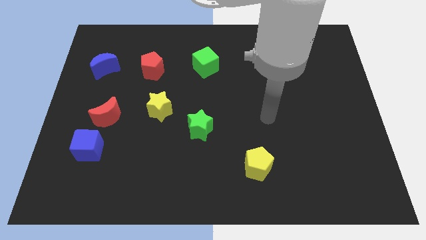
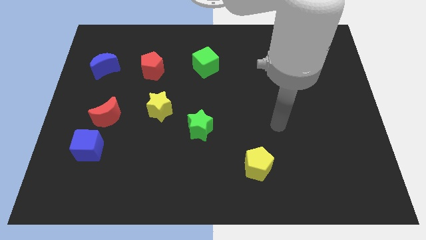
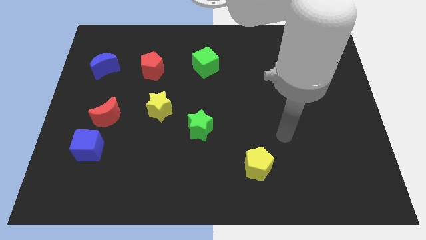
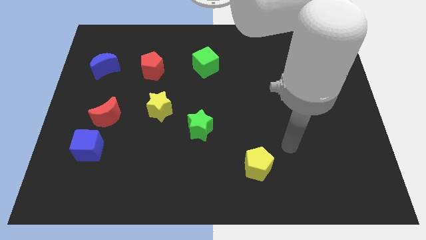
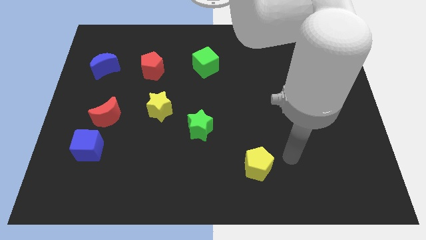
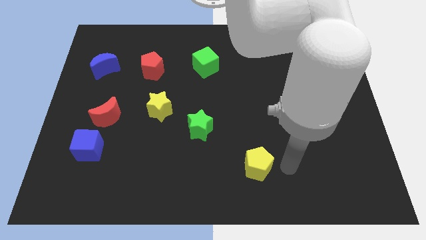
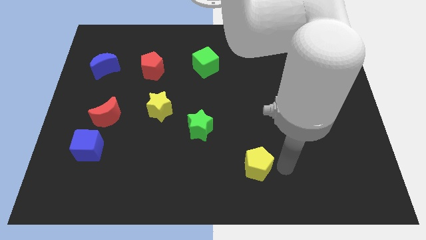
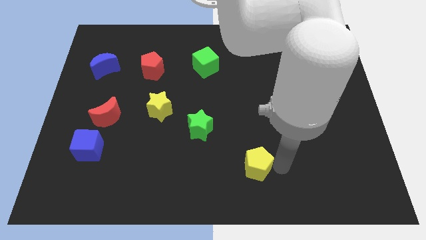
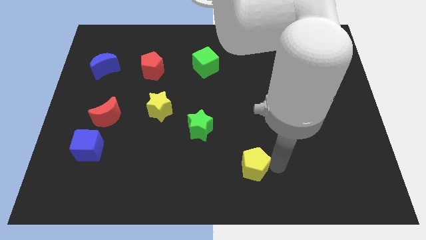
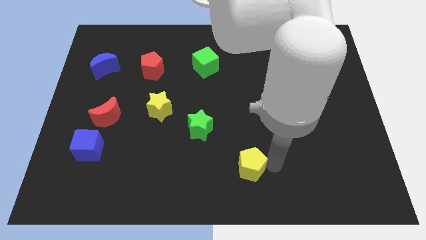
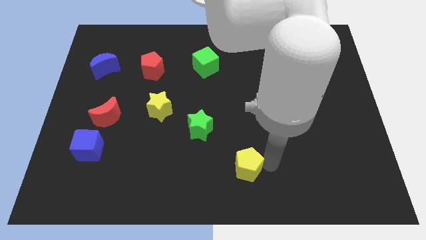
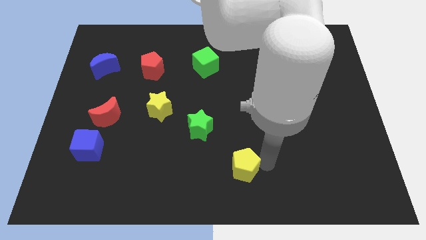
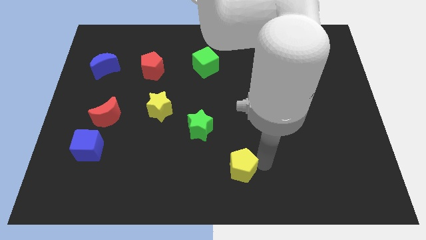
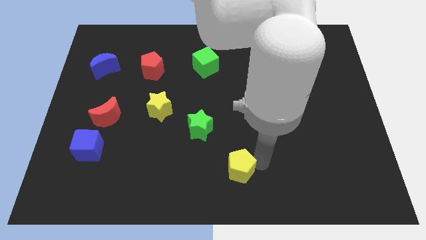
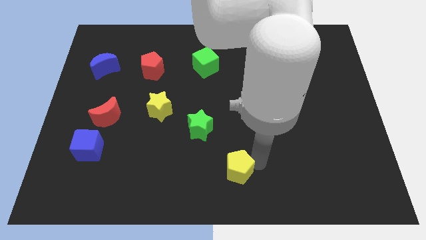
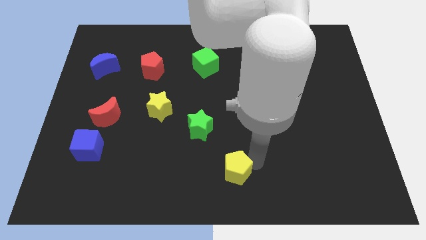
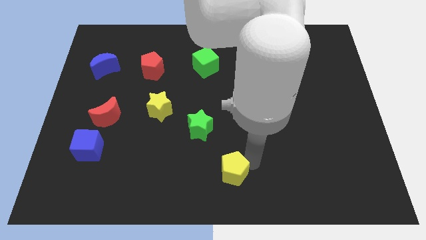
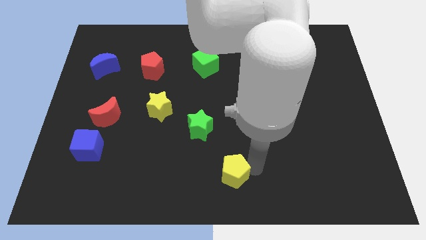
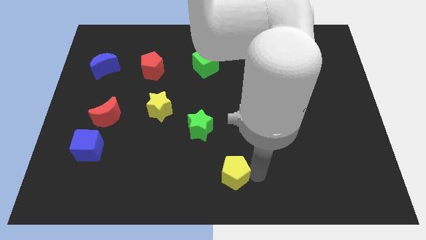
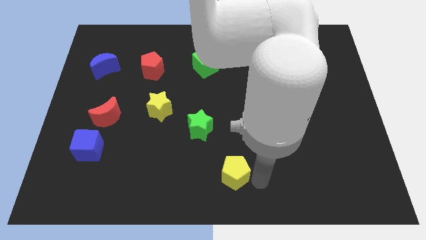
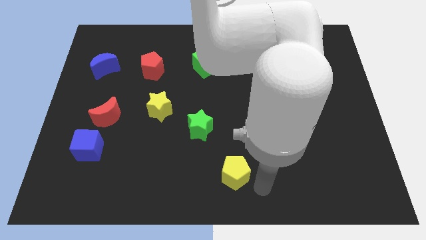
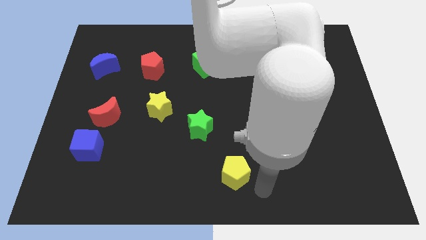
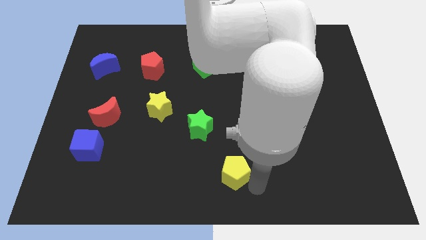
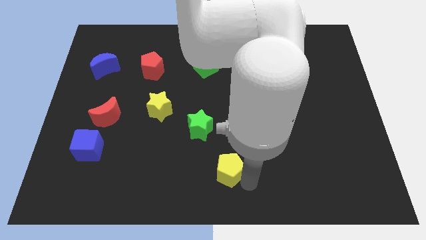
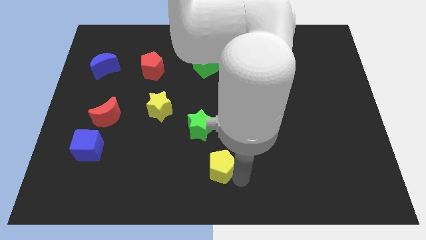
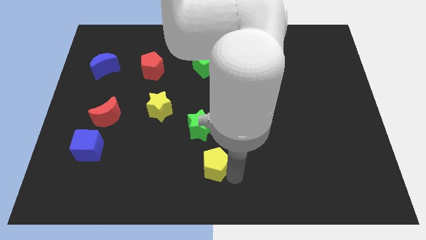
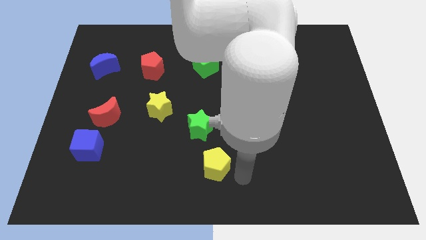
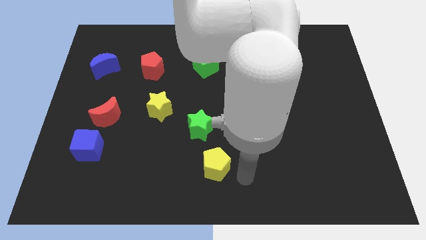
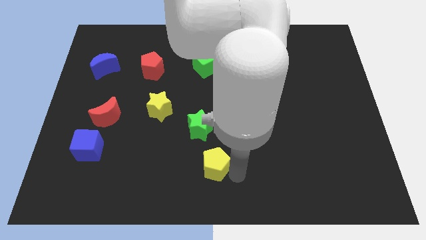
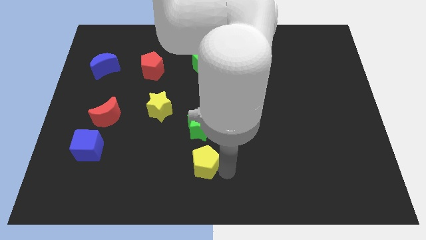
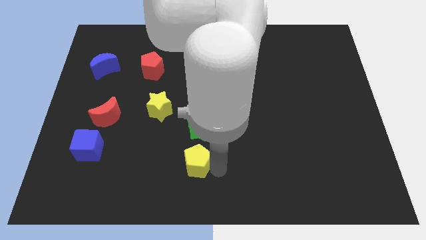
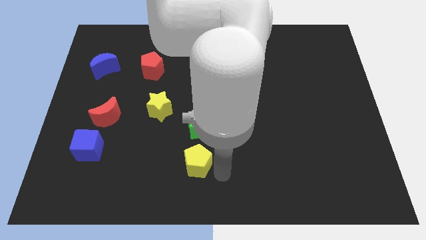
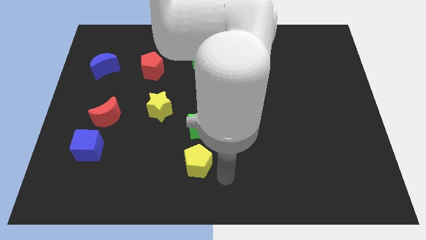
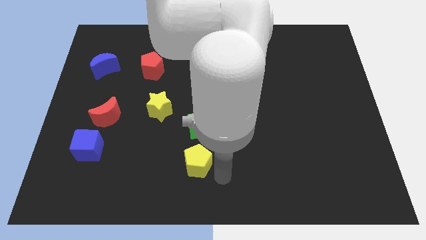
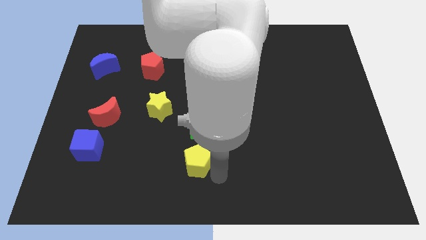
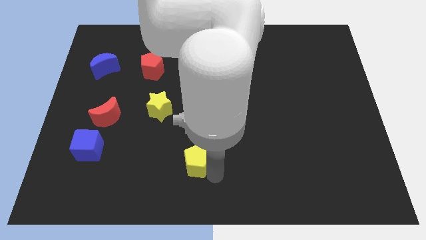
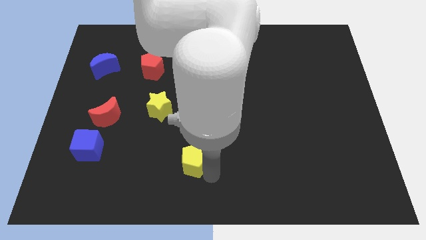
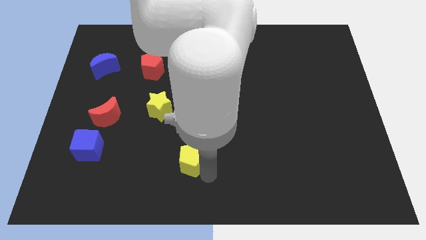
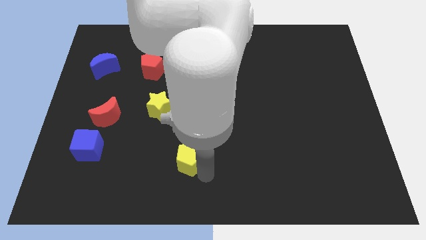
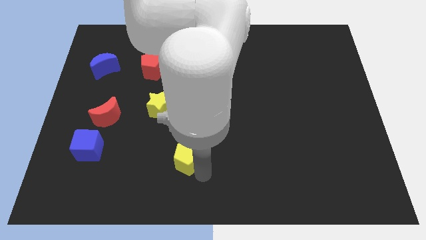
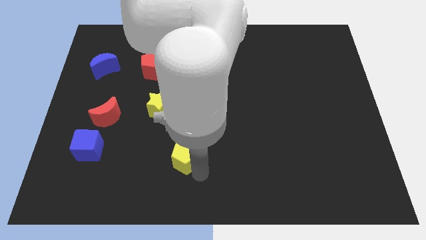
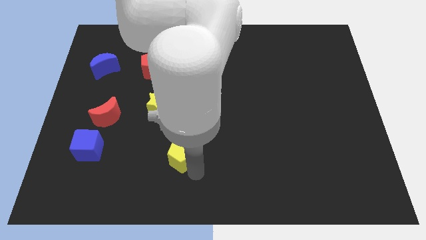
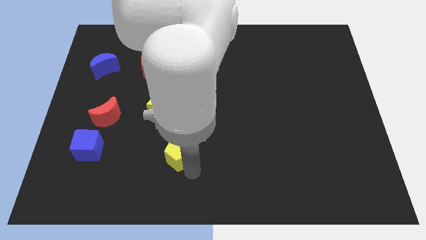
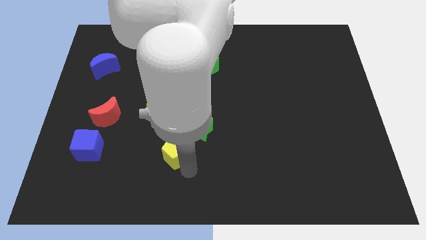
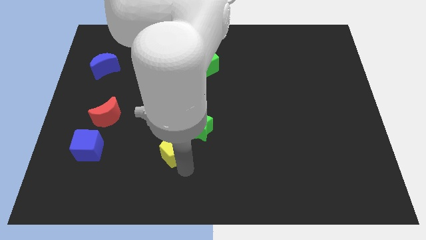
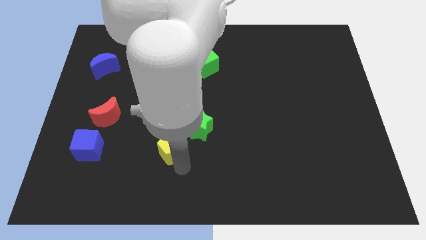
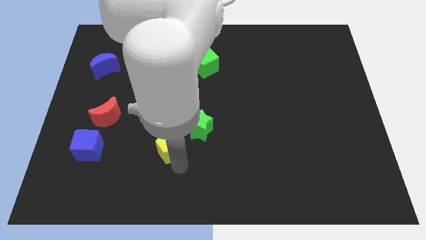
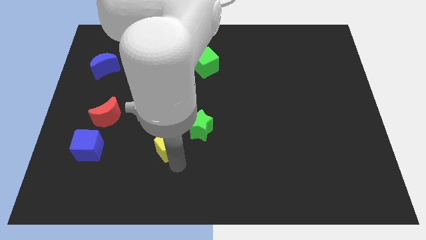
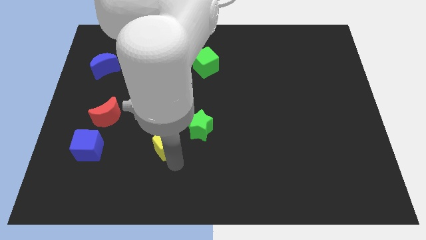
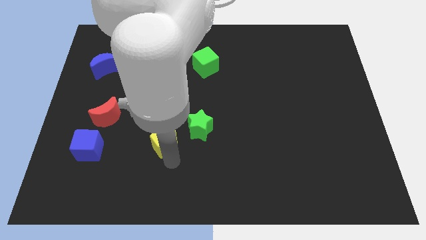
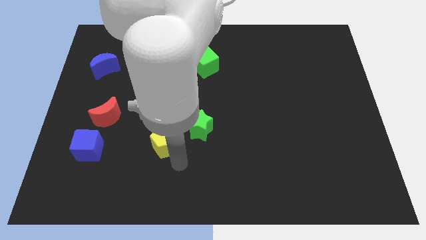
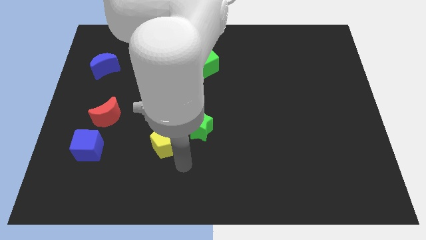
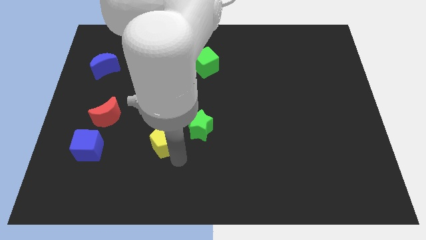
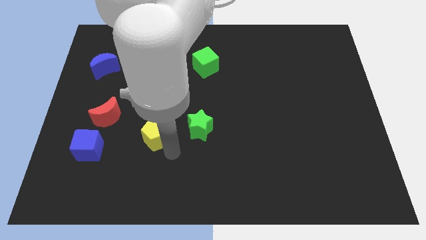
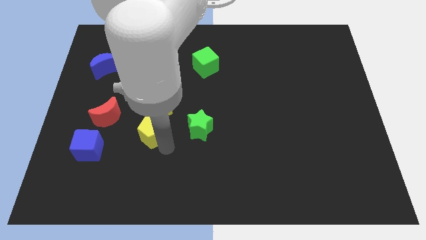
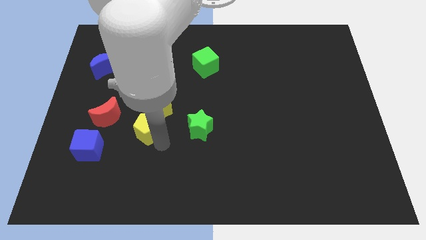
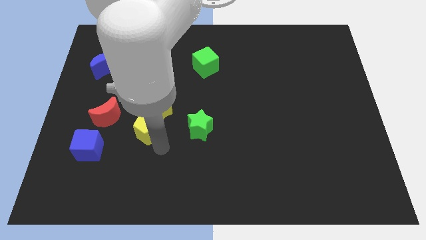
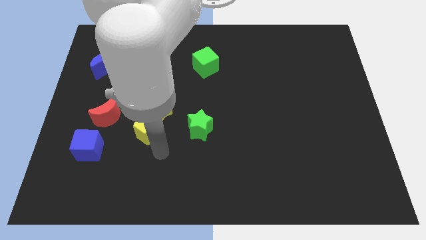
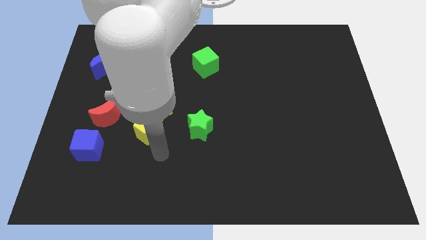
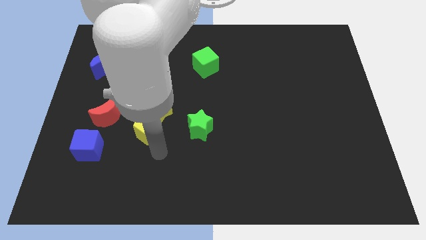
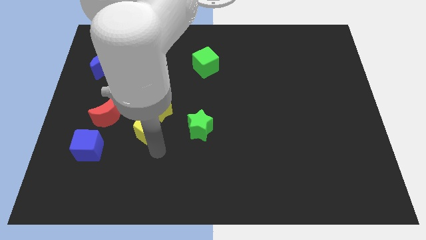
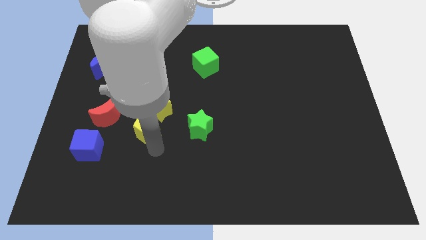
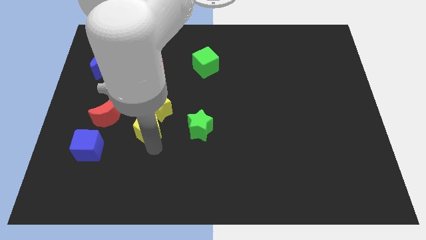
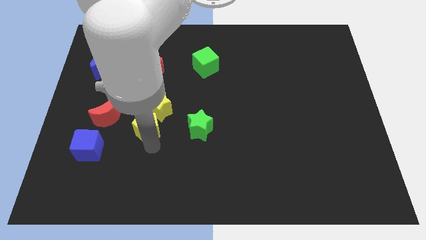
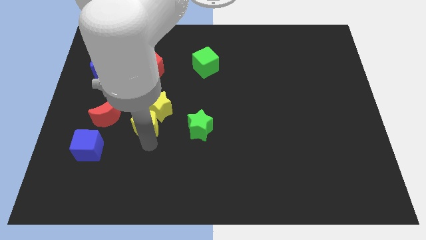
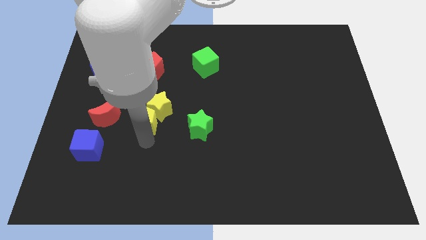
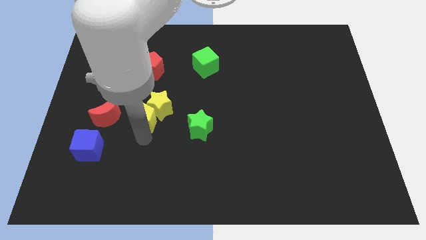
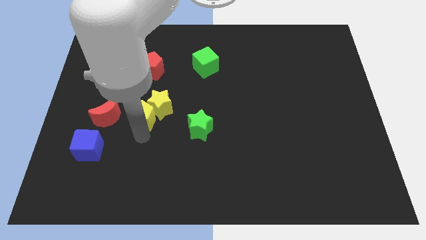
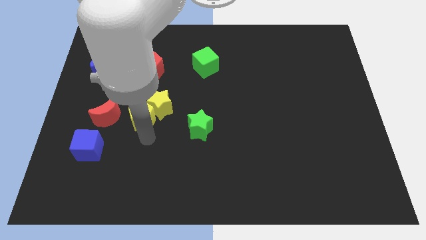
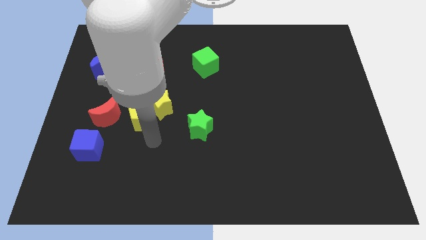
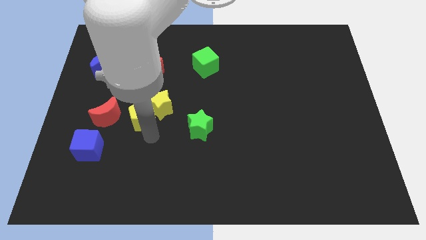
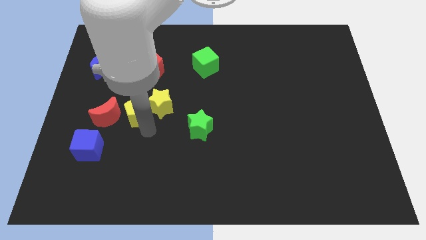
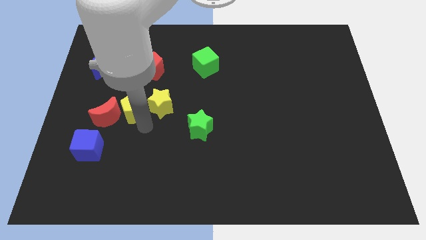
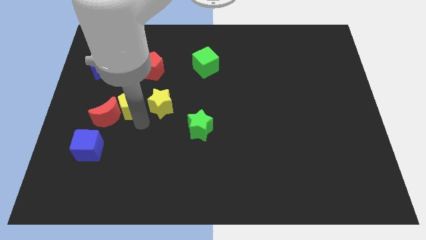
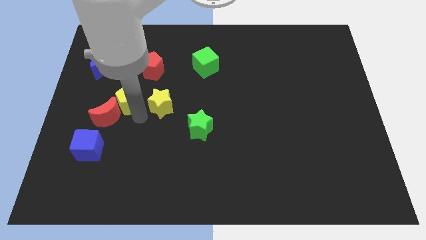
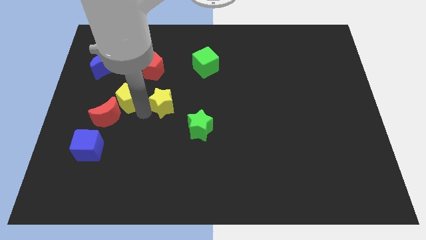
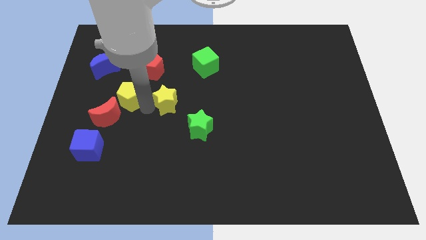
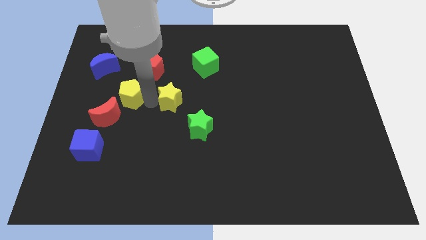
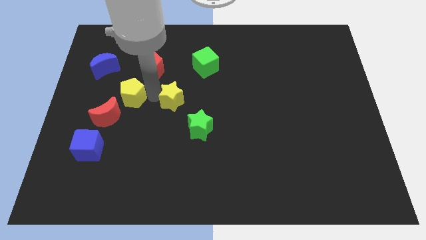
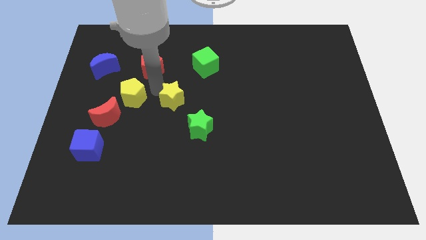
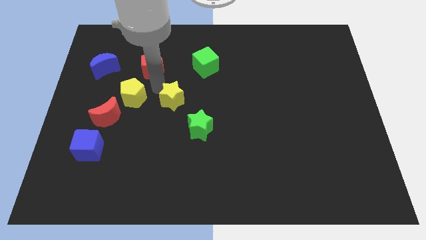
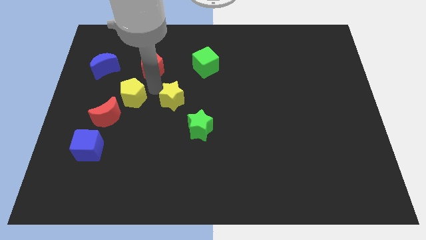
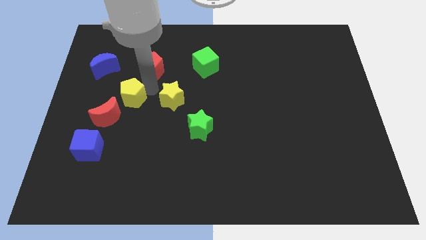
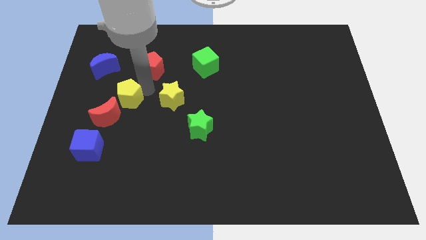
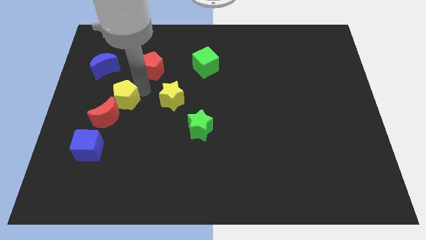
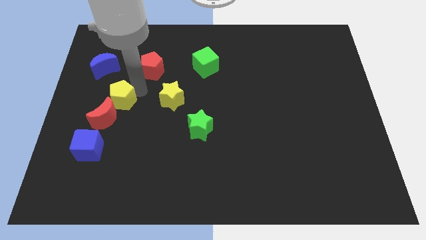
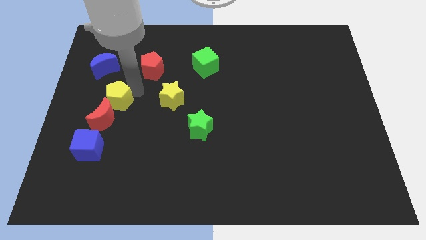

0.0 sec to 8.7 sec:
put the yellow pentagon above the blue cube
